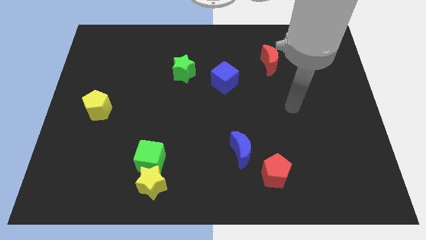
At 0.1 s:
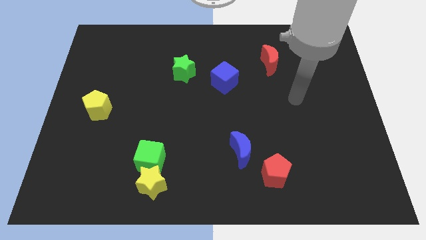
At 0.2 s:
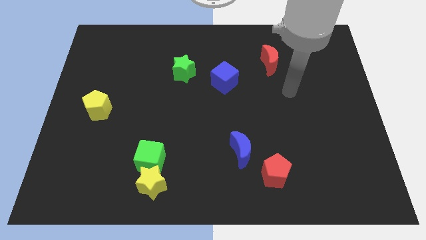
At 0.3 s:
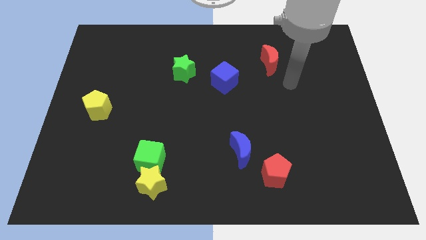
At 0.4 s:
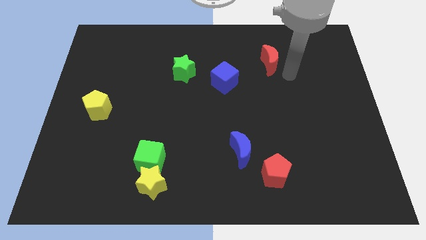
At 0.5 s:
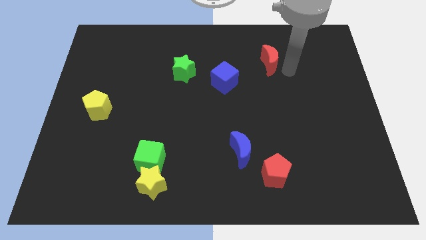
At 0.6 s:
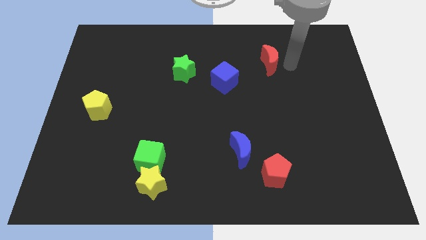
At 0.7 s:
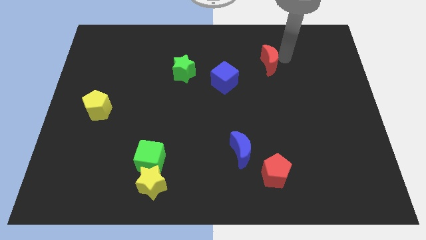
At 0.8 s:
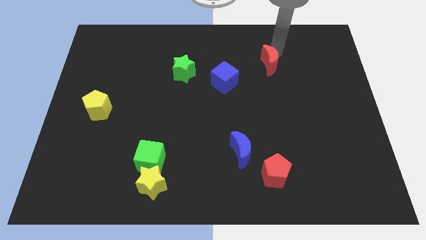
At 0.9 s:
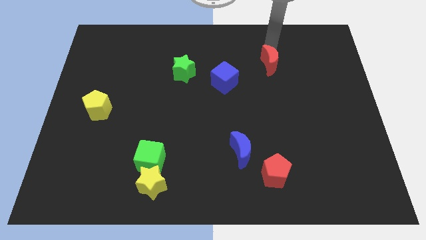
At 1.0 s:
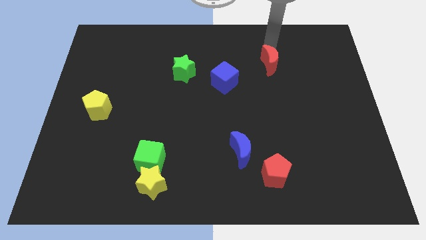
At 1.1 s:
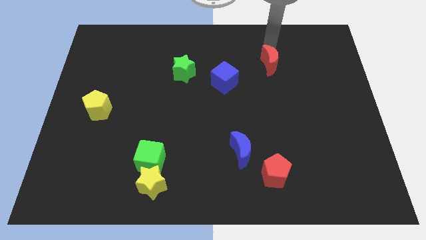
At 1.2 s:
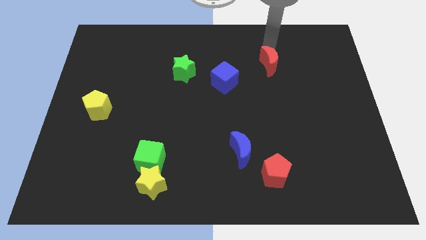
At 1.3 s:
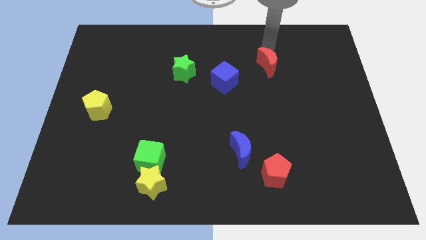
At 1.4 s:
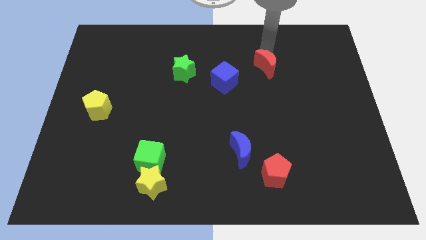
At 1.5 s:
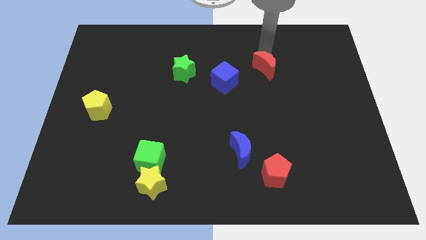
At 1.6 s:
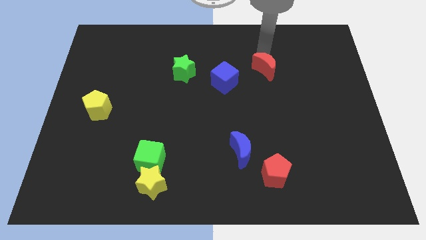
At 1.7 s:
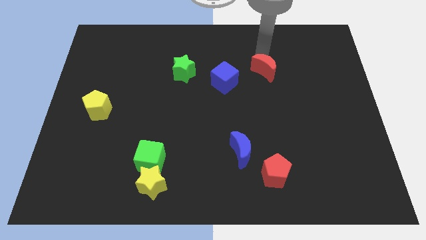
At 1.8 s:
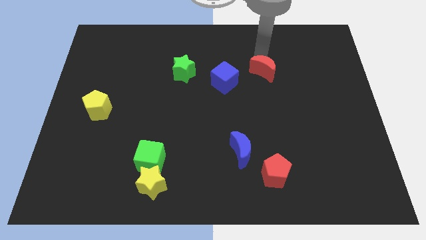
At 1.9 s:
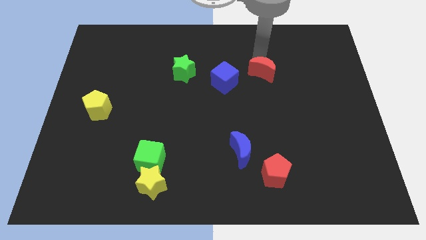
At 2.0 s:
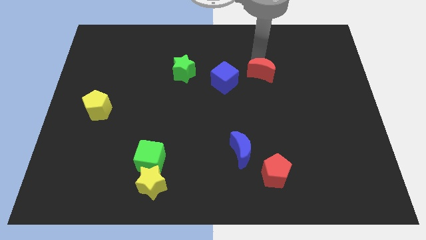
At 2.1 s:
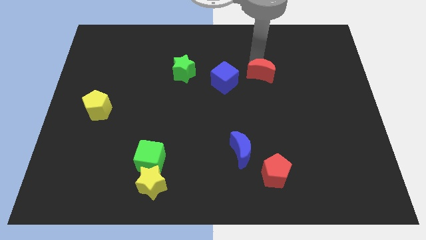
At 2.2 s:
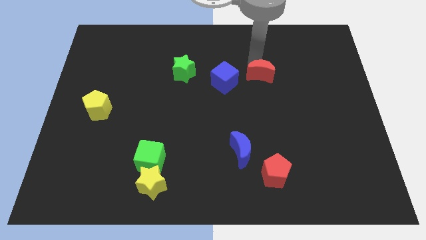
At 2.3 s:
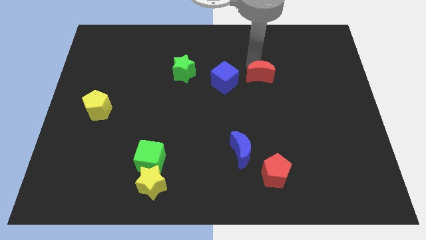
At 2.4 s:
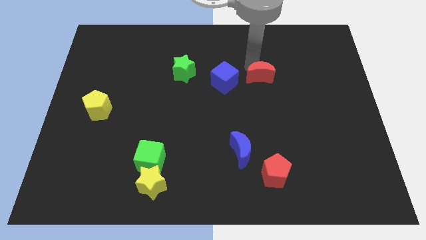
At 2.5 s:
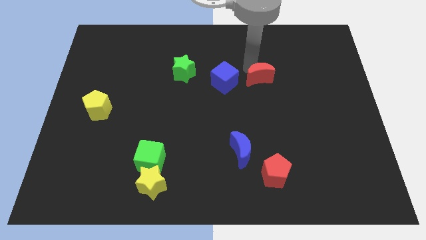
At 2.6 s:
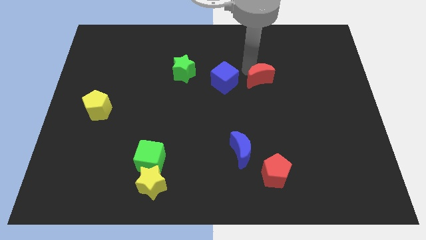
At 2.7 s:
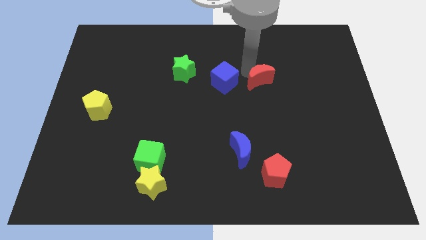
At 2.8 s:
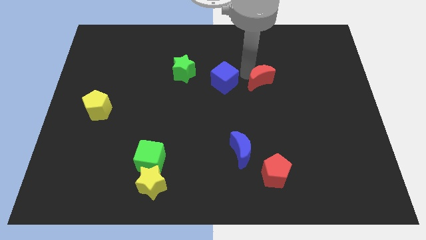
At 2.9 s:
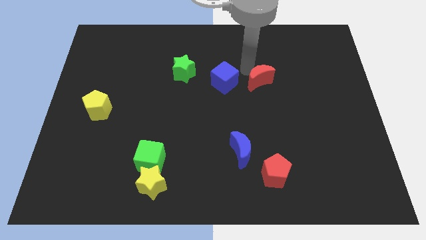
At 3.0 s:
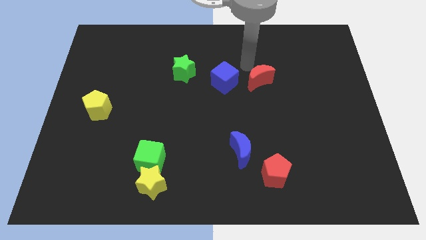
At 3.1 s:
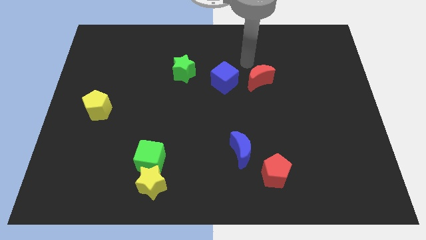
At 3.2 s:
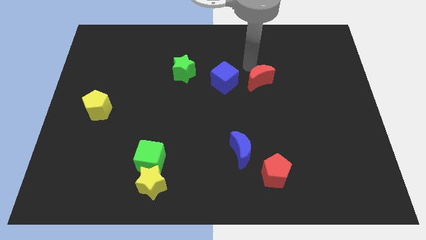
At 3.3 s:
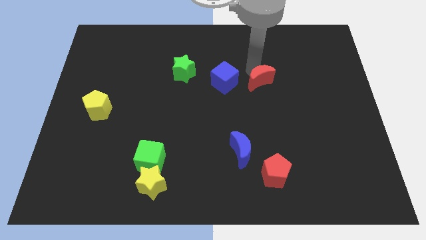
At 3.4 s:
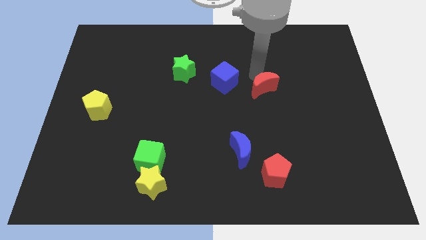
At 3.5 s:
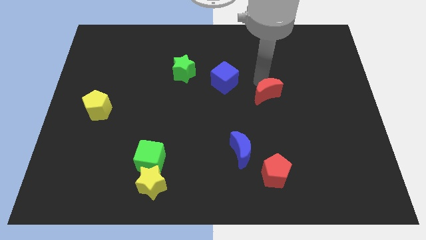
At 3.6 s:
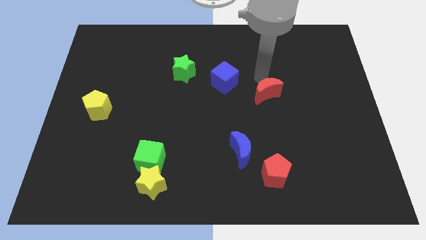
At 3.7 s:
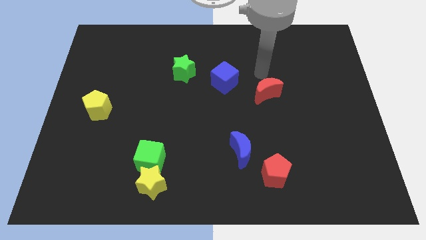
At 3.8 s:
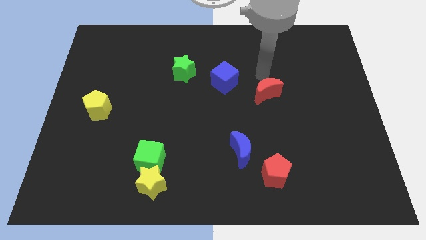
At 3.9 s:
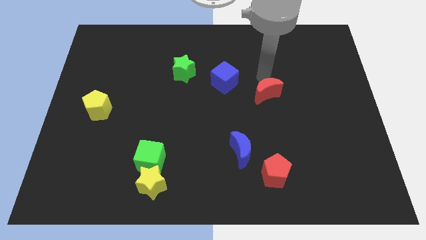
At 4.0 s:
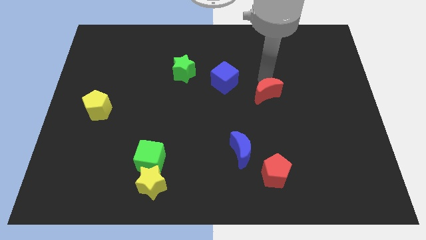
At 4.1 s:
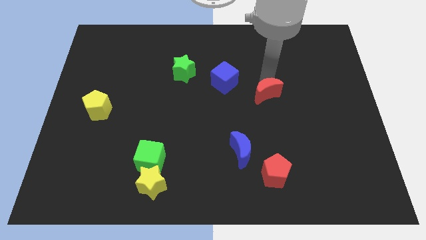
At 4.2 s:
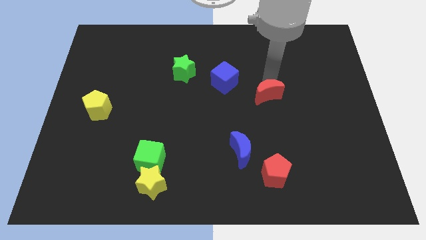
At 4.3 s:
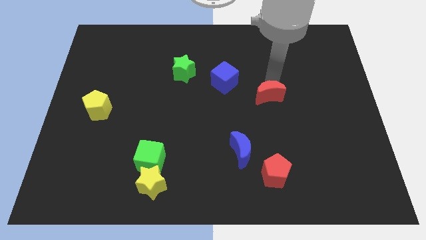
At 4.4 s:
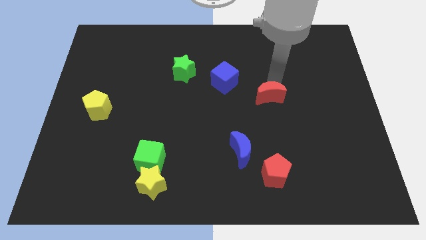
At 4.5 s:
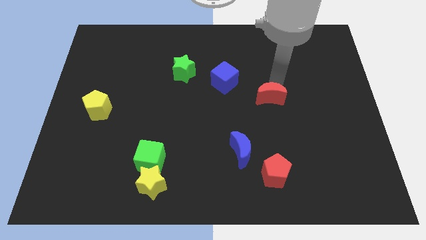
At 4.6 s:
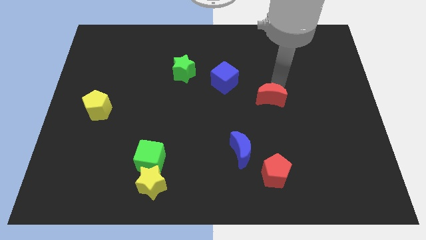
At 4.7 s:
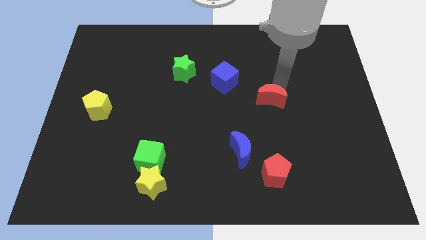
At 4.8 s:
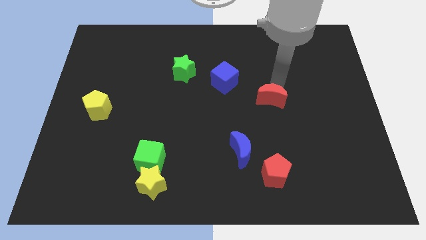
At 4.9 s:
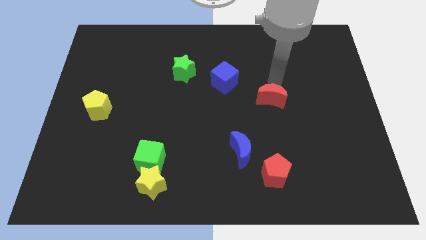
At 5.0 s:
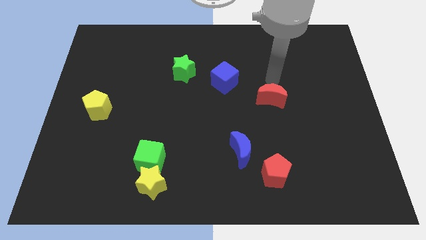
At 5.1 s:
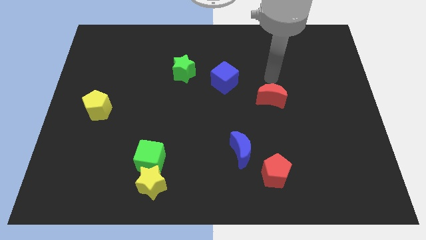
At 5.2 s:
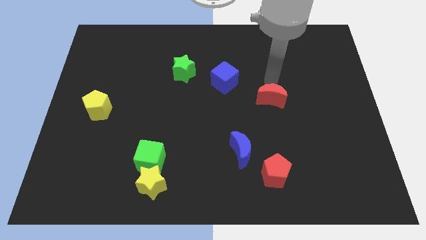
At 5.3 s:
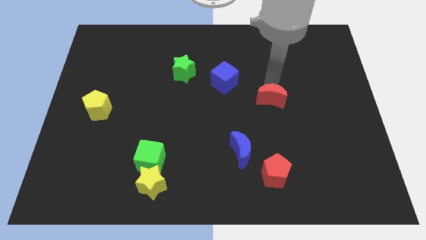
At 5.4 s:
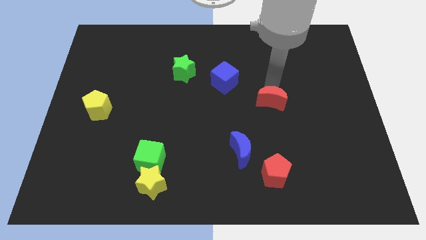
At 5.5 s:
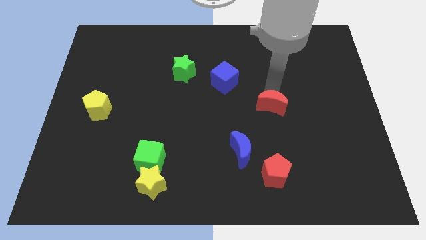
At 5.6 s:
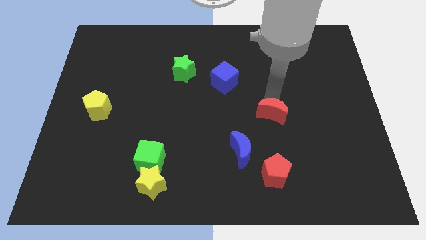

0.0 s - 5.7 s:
push the red moon to the top side of the red pentagon

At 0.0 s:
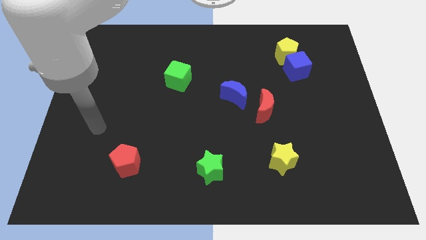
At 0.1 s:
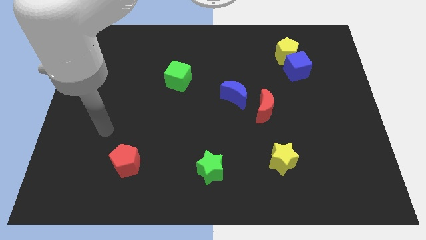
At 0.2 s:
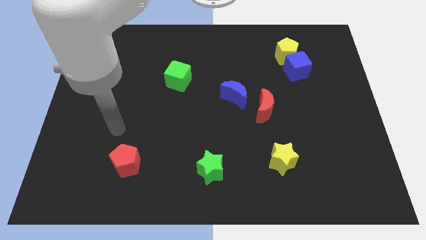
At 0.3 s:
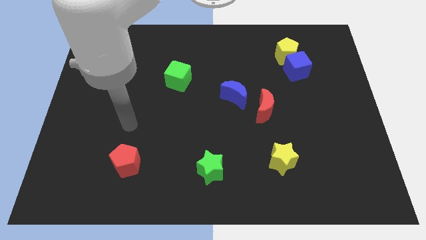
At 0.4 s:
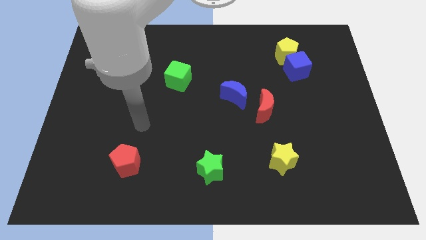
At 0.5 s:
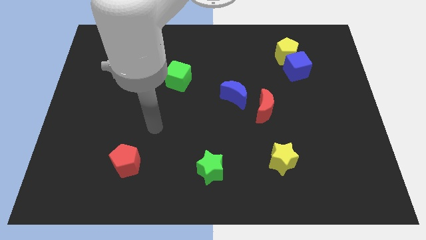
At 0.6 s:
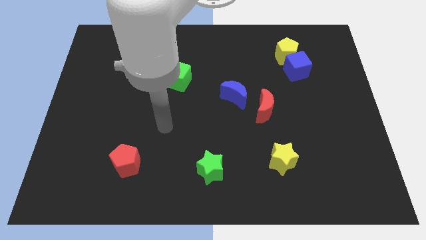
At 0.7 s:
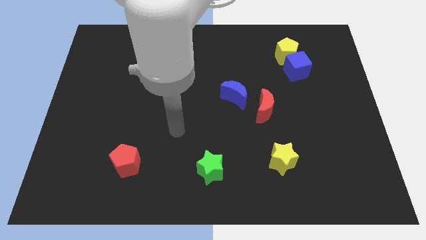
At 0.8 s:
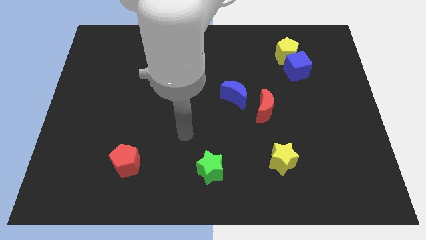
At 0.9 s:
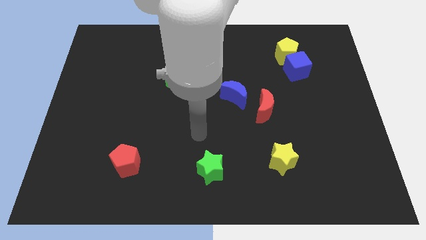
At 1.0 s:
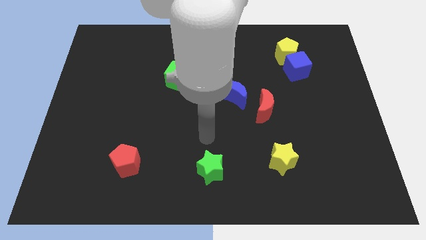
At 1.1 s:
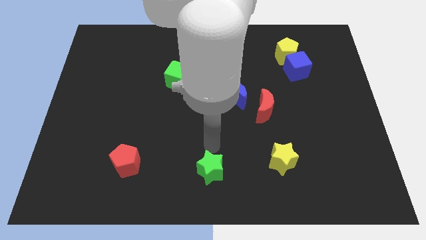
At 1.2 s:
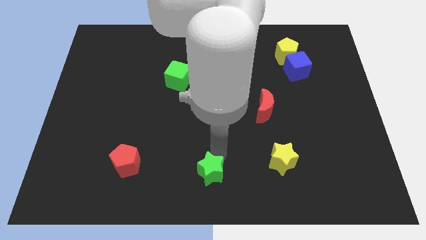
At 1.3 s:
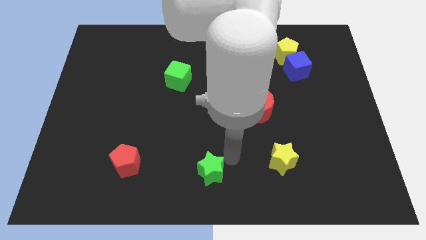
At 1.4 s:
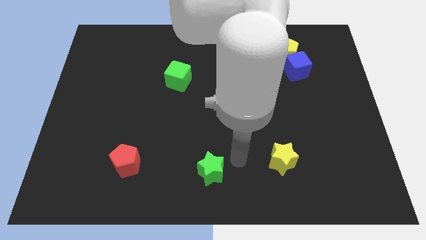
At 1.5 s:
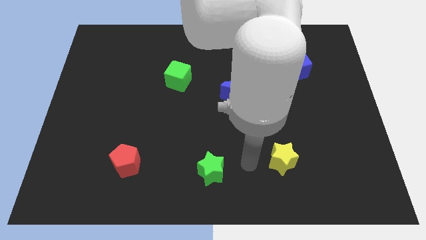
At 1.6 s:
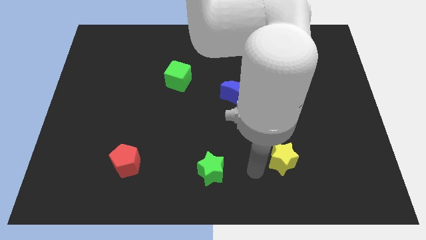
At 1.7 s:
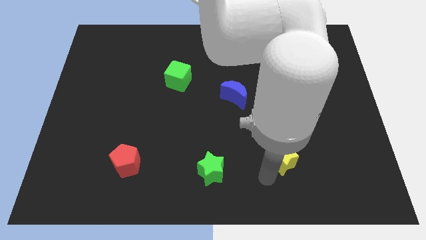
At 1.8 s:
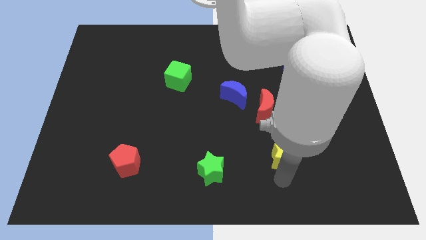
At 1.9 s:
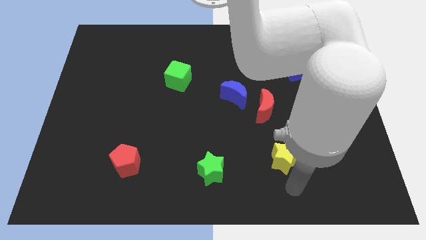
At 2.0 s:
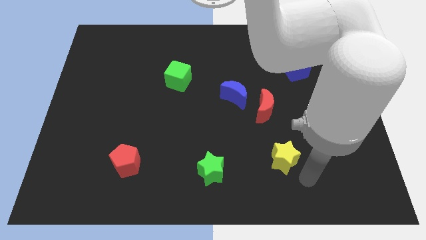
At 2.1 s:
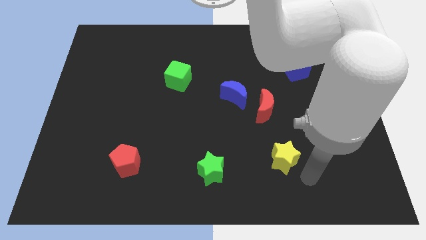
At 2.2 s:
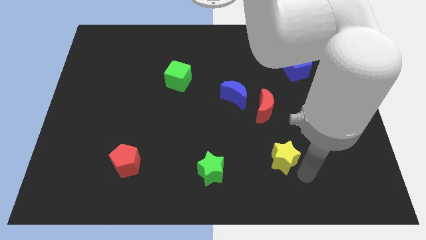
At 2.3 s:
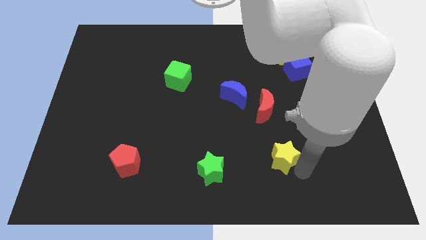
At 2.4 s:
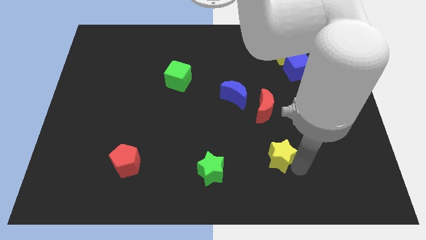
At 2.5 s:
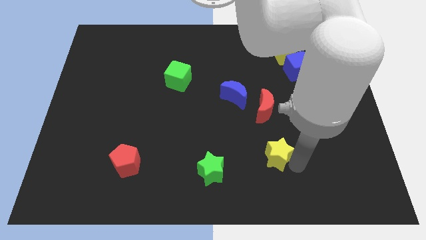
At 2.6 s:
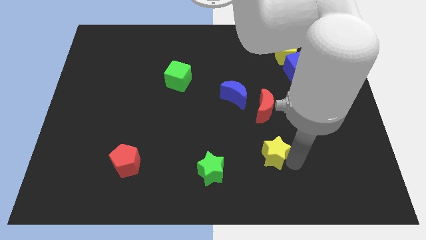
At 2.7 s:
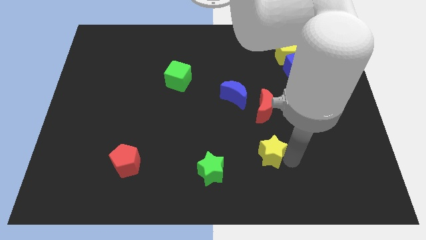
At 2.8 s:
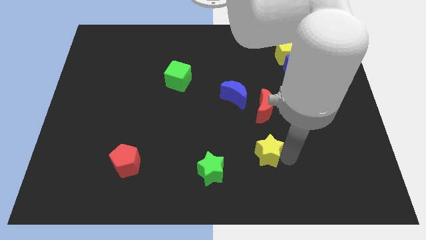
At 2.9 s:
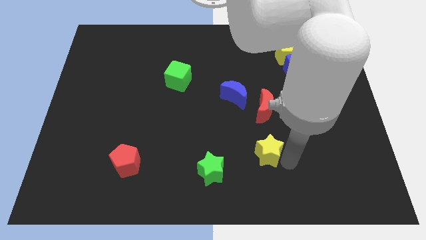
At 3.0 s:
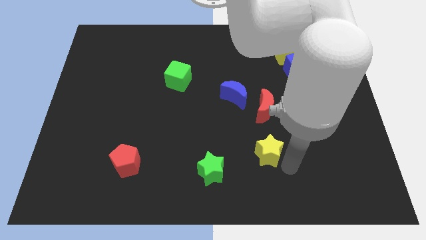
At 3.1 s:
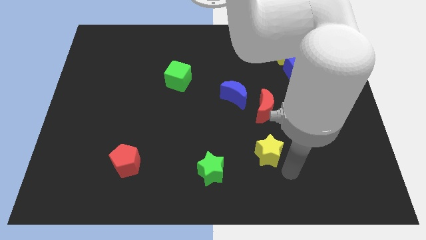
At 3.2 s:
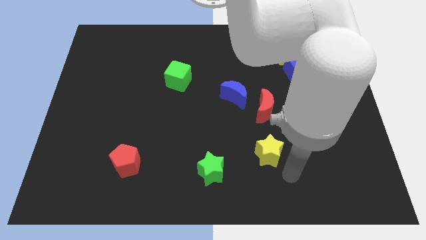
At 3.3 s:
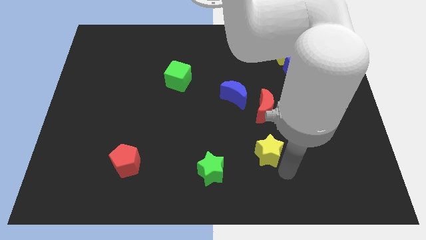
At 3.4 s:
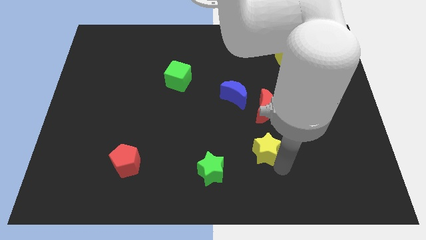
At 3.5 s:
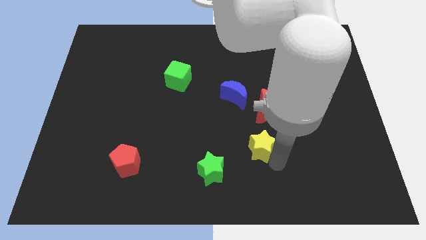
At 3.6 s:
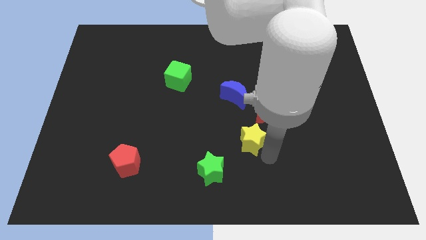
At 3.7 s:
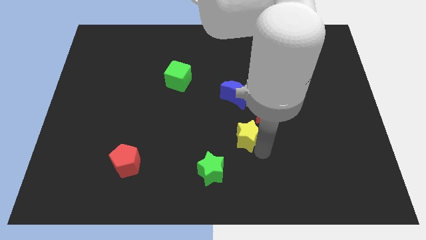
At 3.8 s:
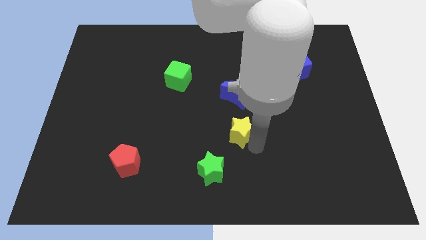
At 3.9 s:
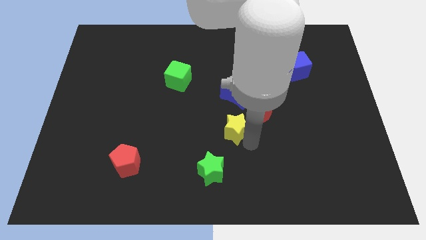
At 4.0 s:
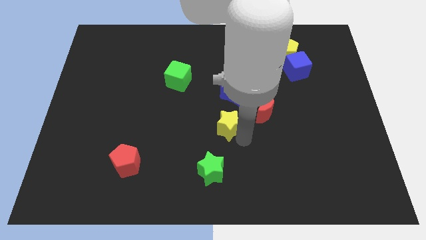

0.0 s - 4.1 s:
put the yellow star just left of the red moon
